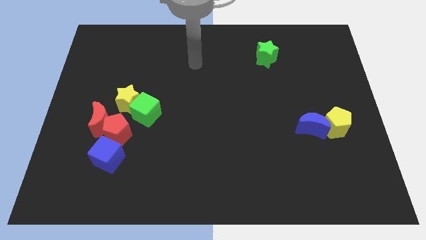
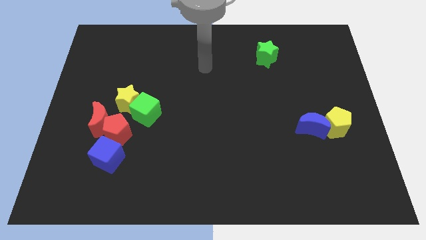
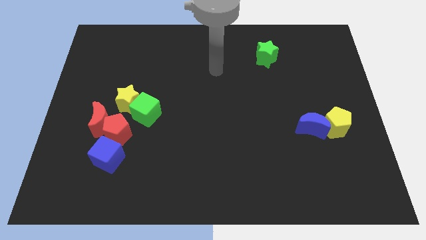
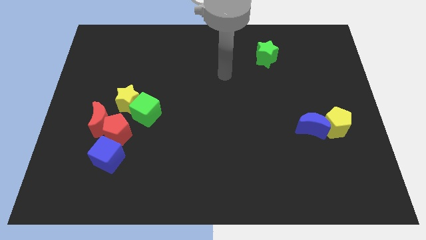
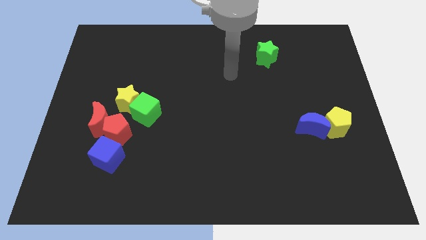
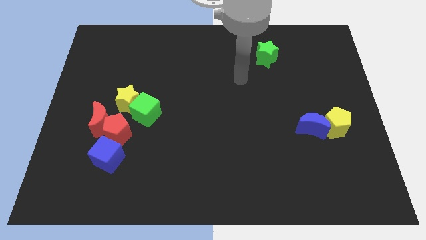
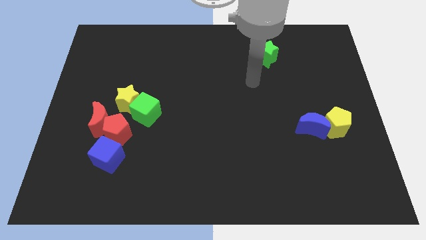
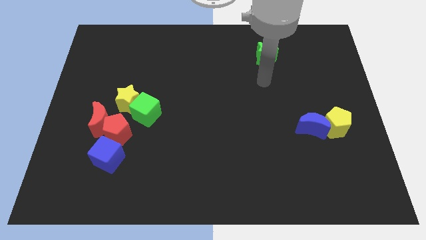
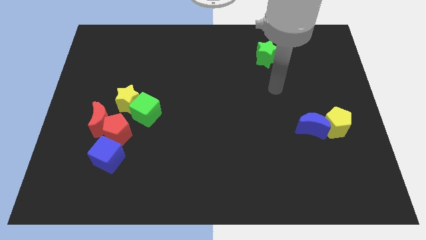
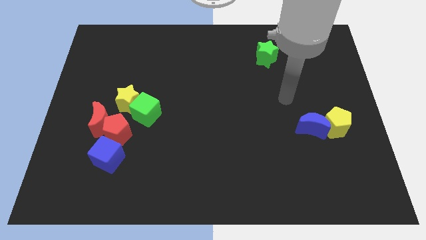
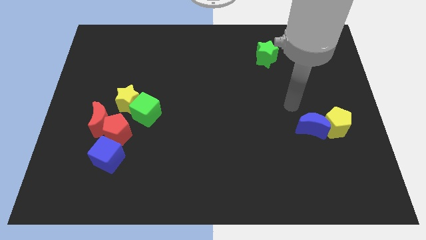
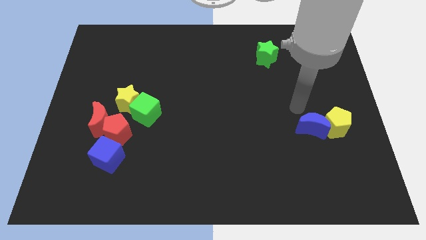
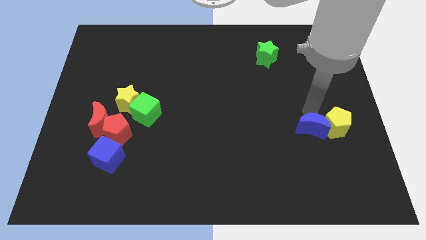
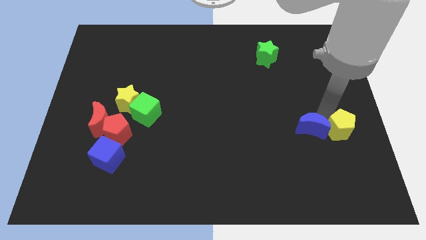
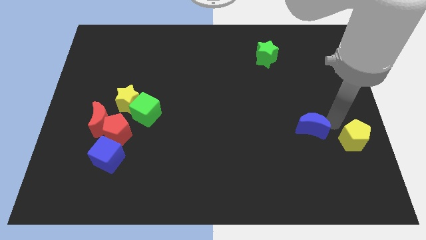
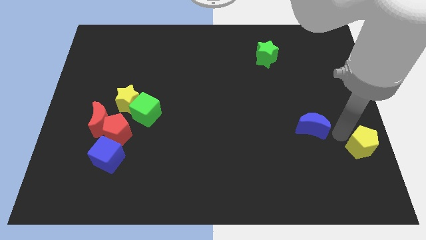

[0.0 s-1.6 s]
move the blue moon away from the yellow pentagon

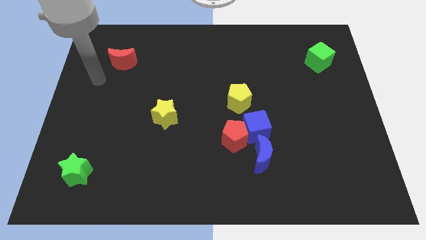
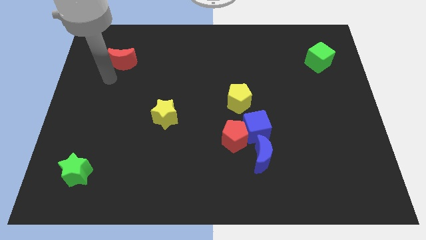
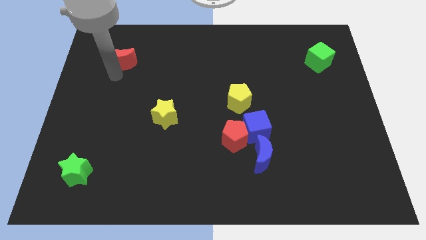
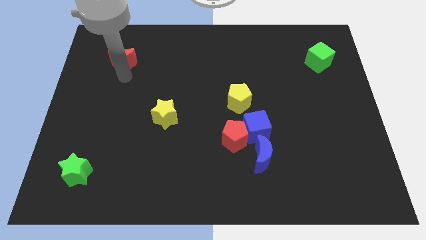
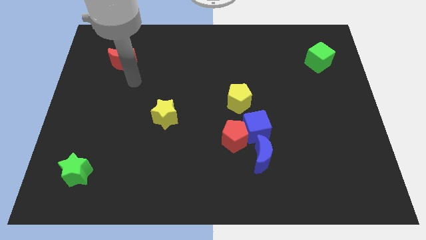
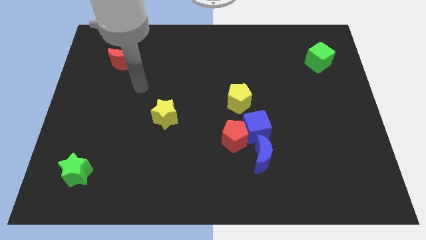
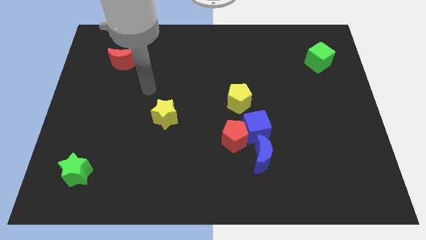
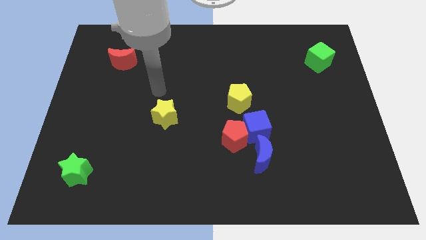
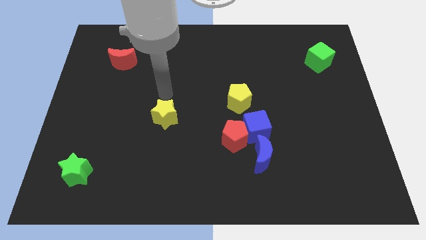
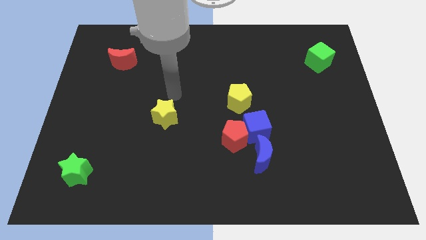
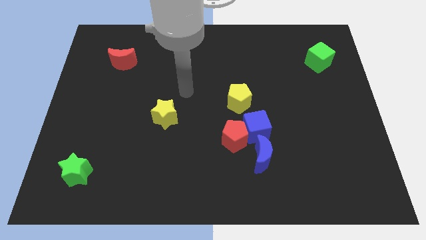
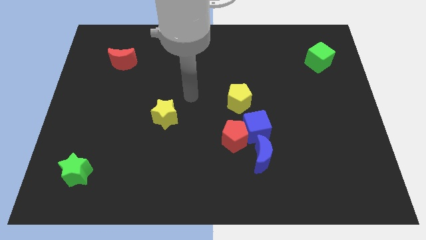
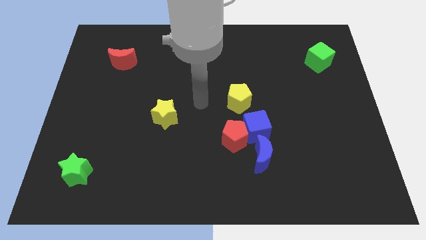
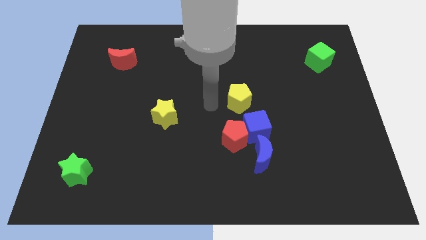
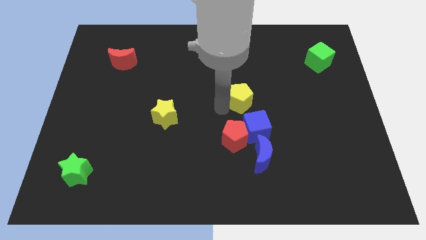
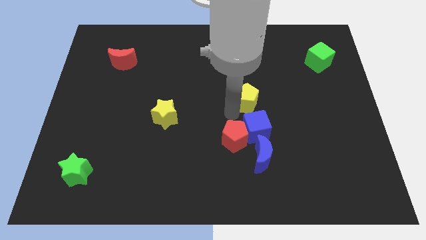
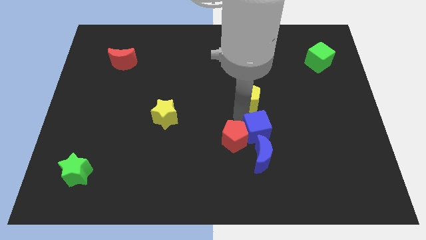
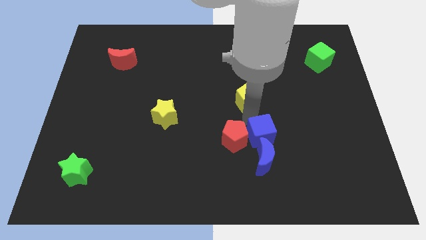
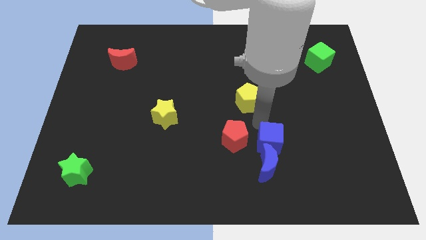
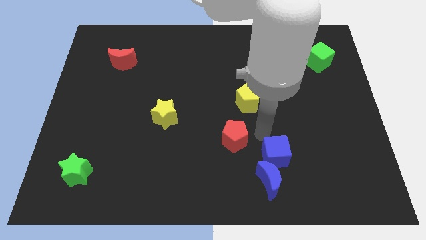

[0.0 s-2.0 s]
separate the red pentagon from the blue cube and blue moon

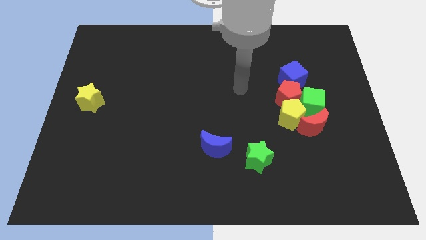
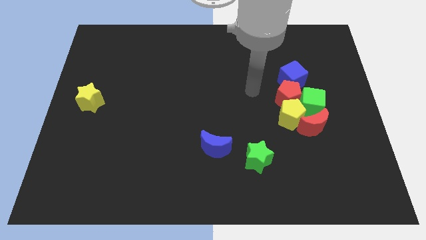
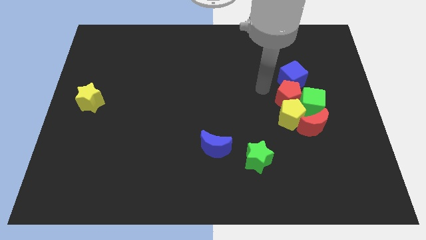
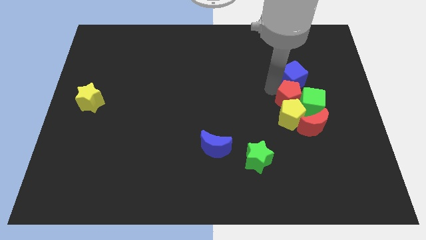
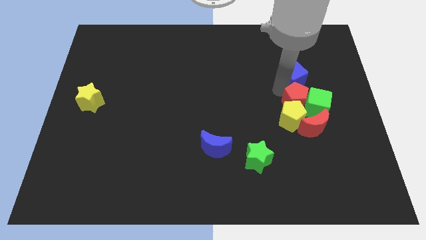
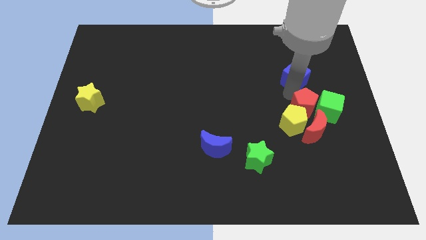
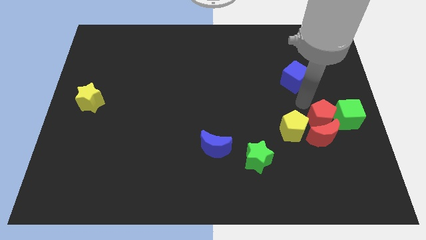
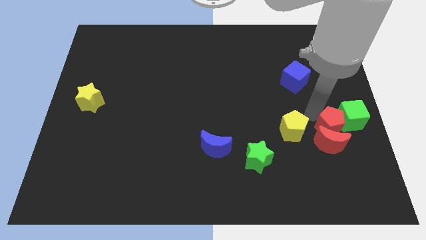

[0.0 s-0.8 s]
pull the yellow pentagon apart from the clump

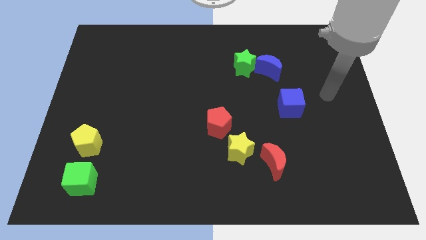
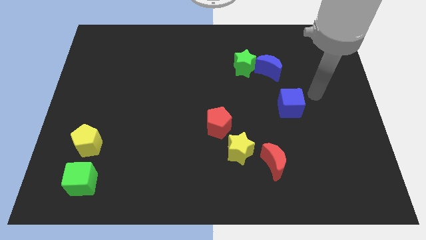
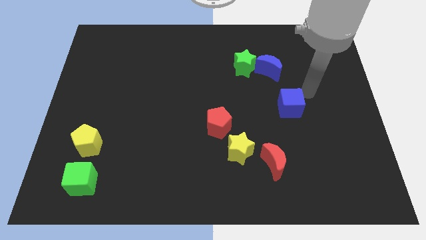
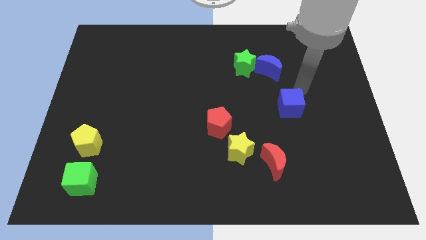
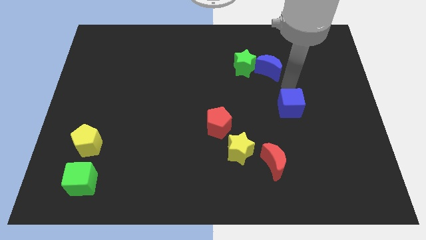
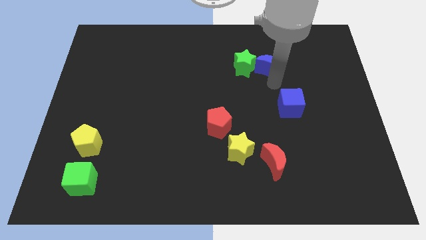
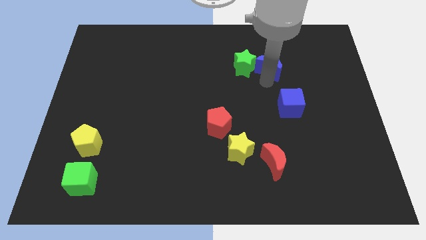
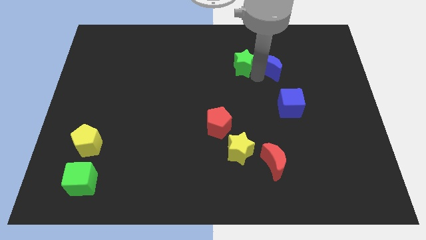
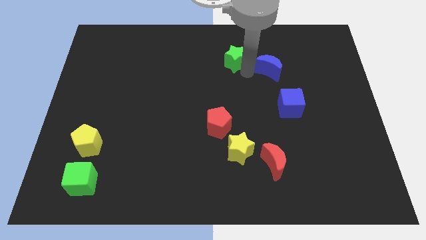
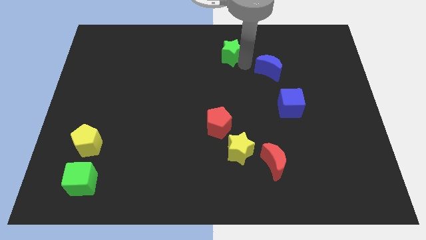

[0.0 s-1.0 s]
move the blue moon away from the green star

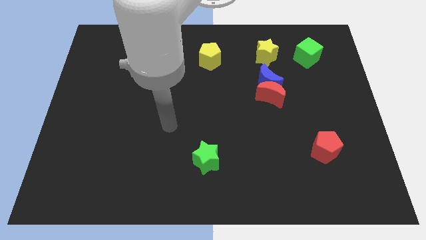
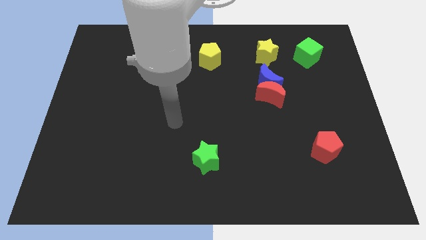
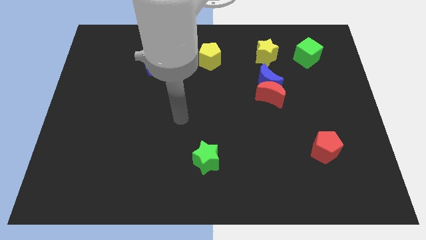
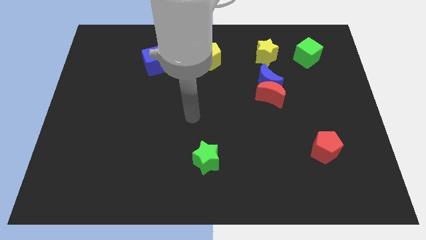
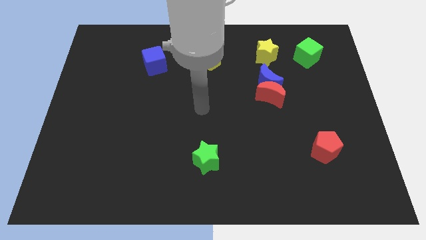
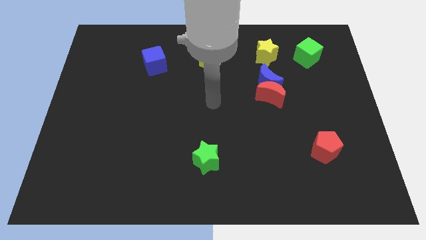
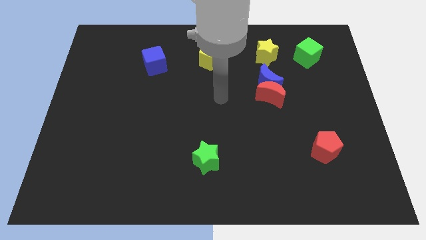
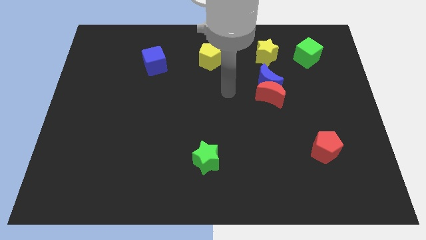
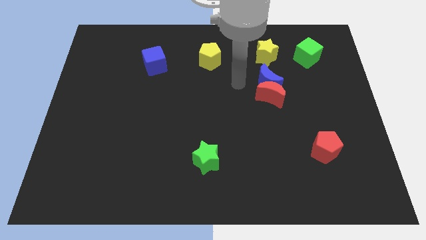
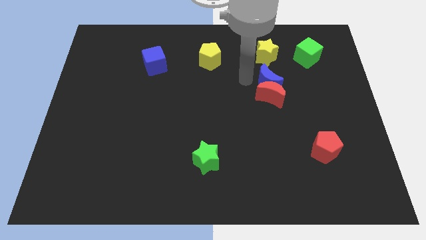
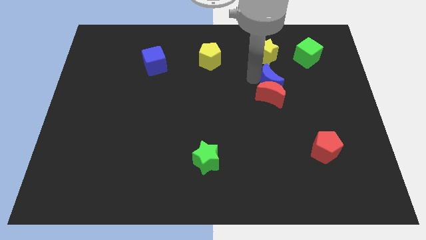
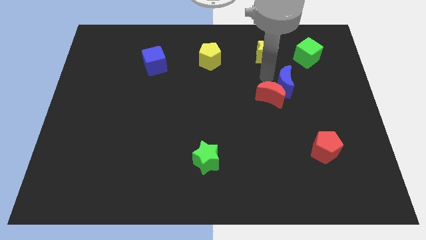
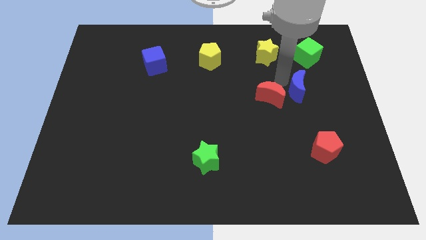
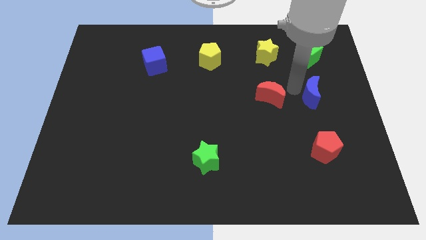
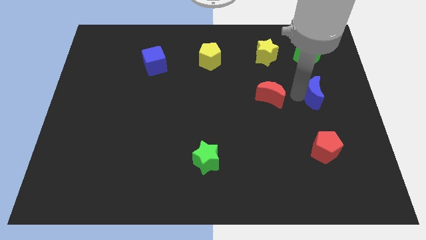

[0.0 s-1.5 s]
pull the red moon apart from the blue moon

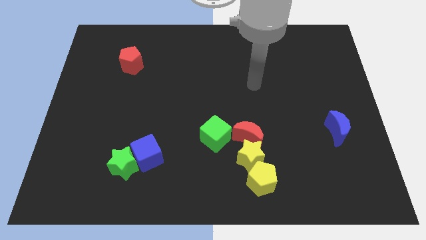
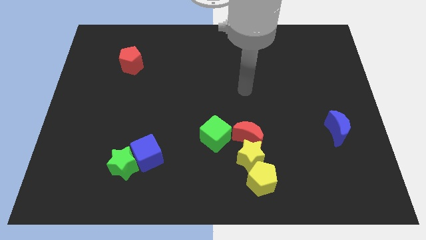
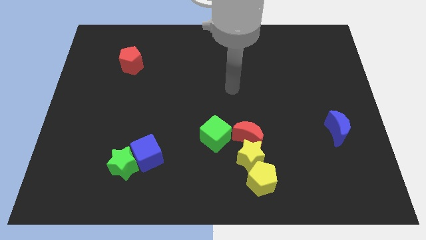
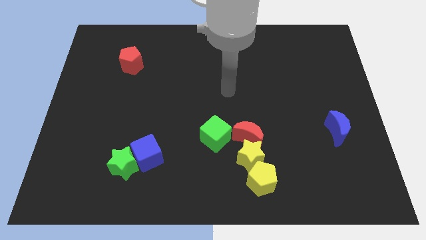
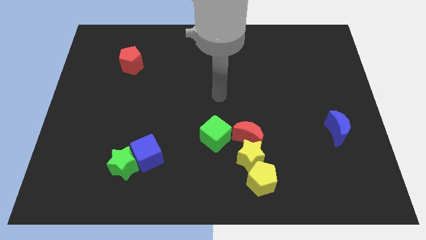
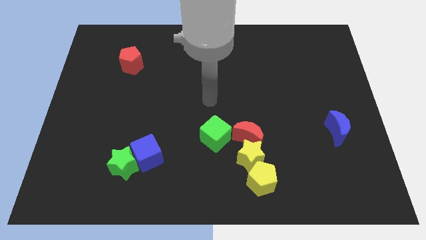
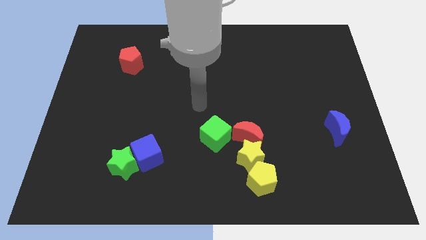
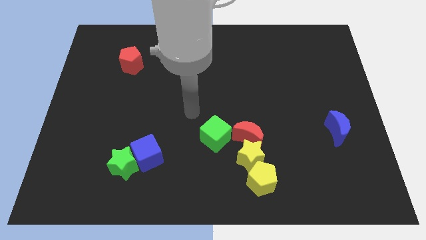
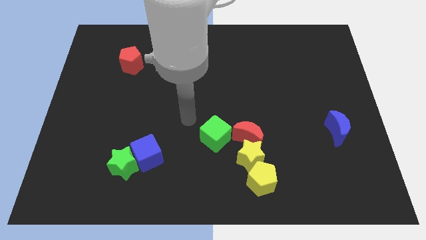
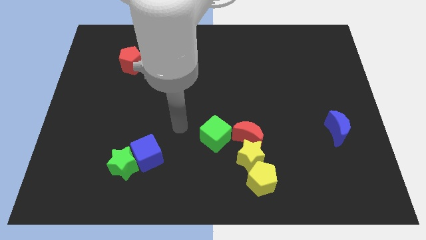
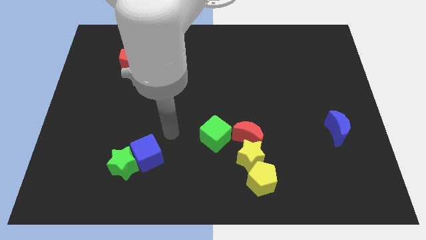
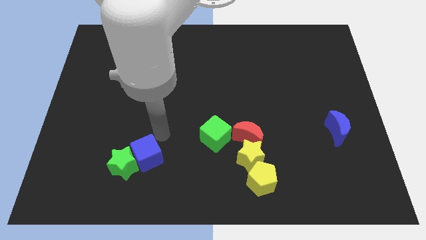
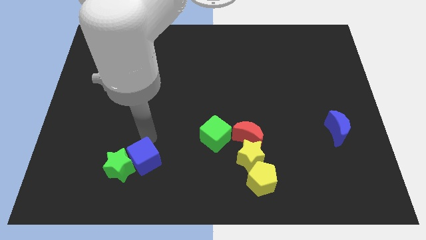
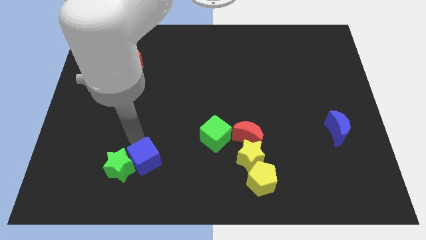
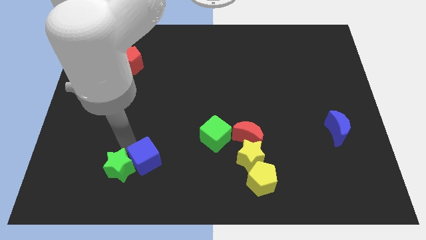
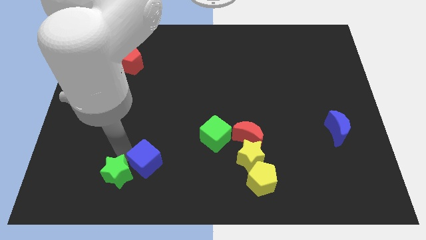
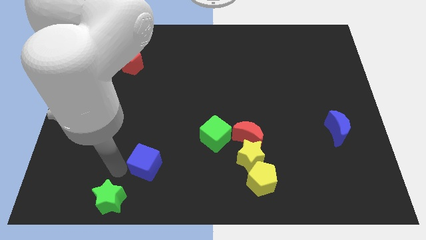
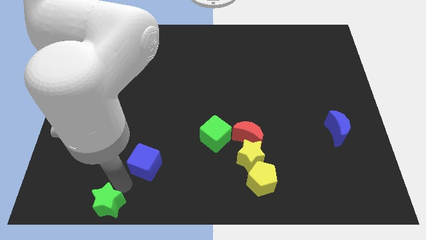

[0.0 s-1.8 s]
pull the blue cube apart from the green star

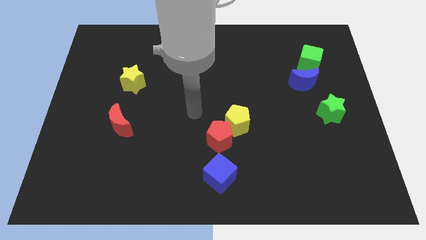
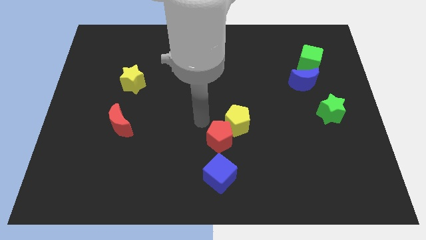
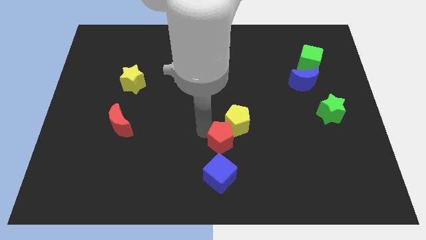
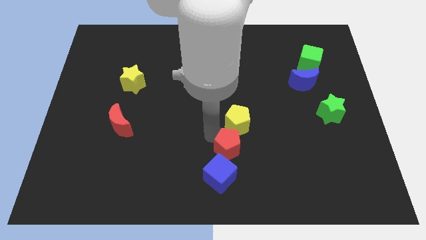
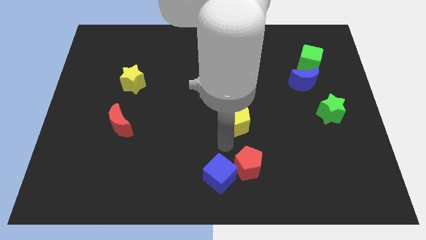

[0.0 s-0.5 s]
move the yellow pentagon away from the red pentagon

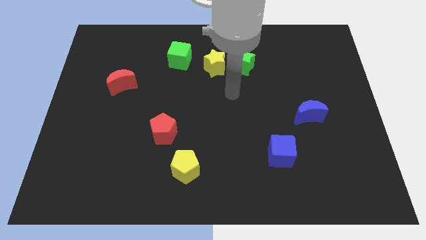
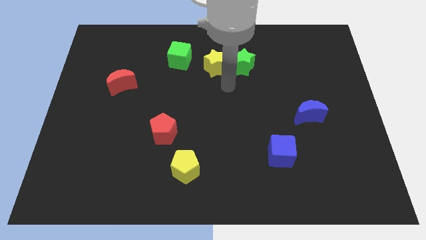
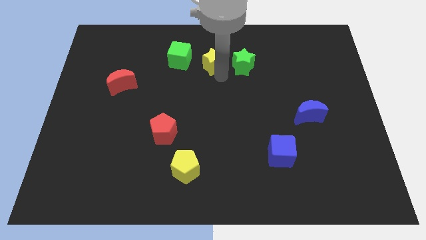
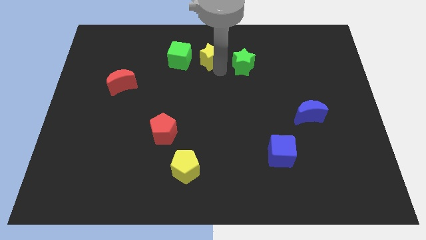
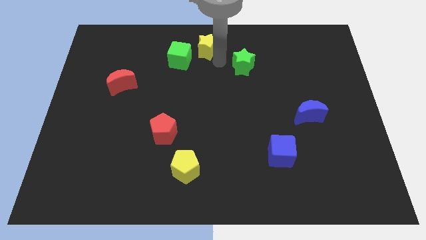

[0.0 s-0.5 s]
separate the green star from the yellow star
